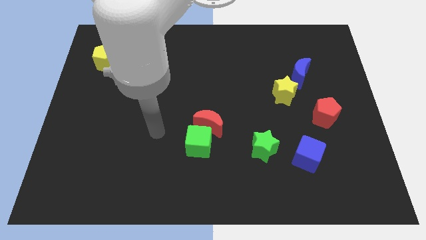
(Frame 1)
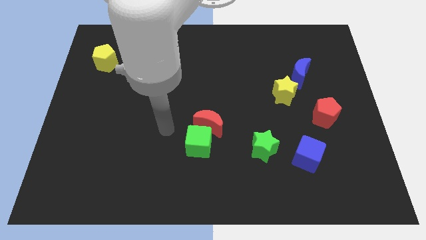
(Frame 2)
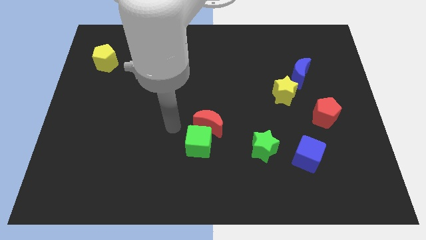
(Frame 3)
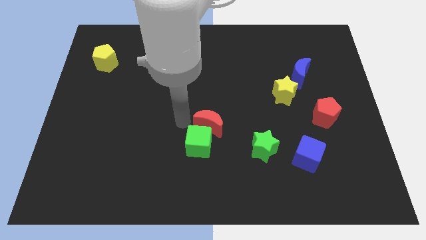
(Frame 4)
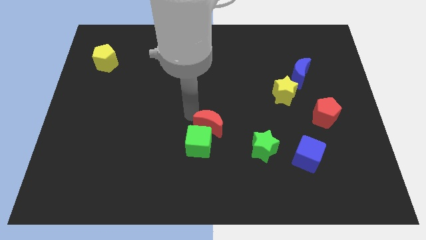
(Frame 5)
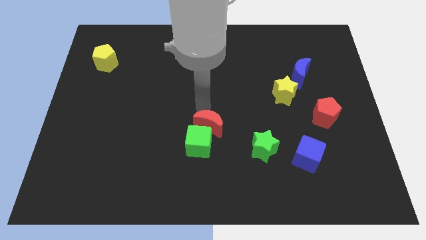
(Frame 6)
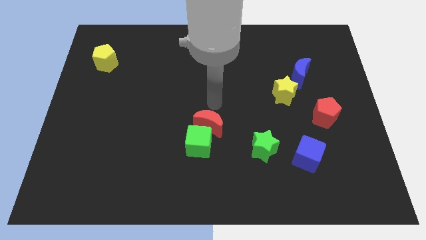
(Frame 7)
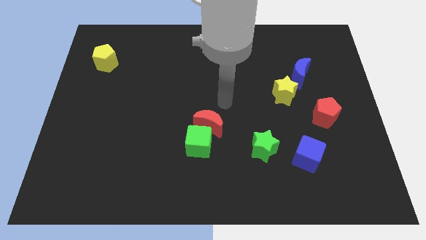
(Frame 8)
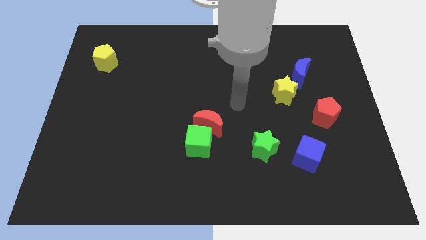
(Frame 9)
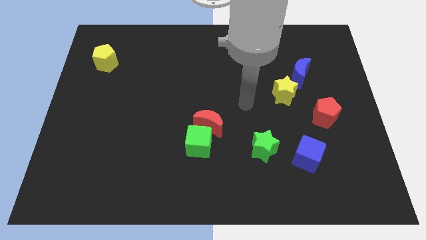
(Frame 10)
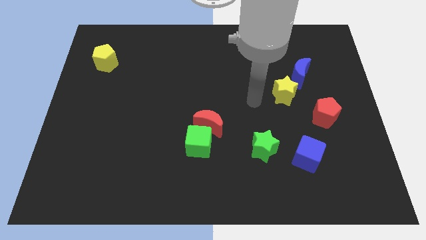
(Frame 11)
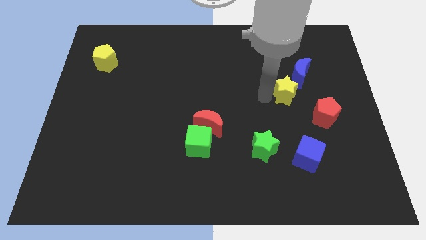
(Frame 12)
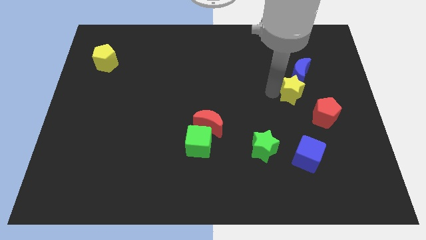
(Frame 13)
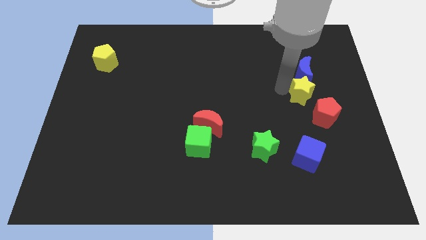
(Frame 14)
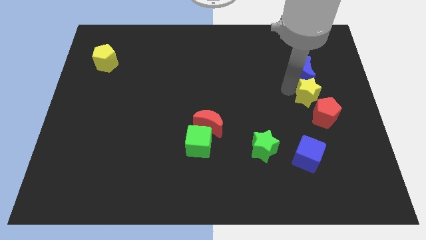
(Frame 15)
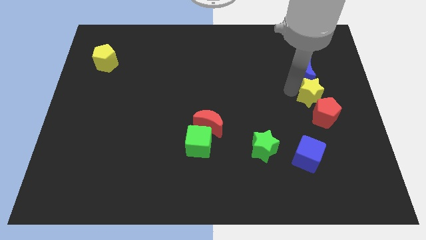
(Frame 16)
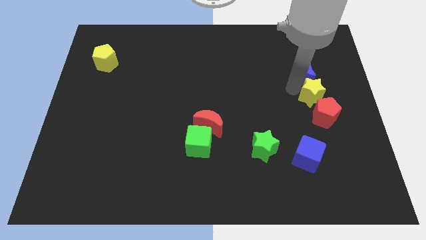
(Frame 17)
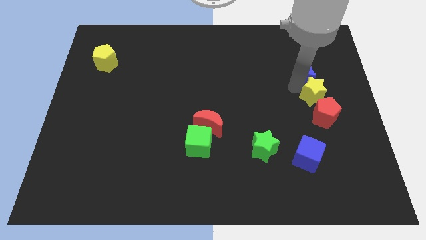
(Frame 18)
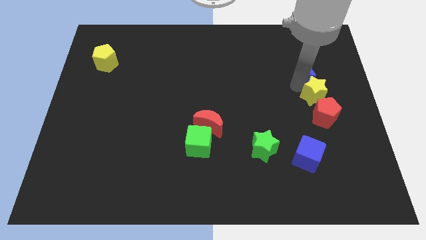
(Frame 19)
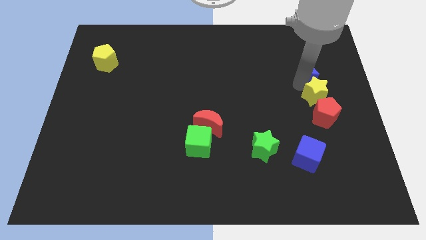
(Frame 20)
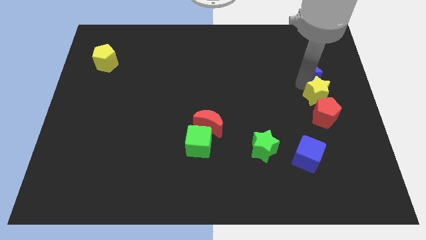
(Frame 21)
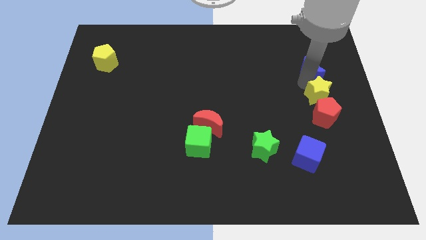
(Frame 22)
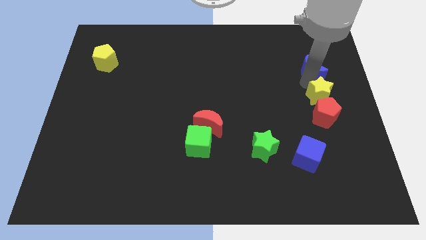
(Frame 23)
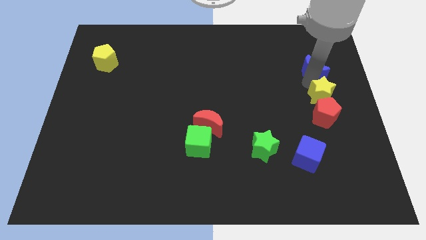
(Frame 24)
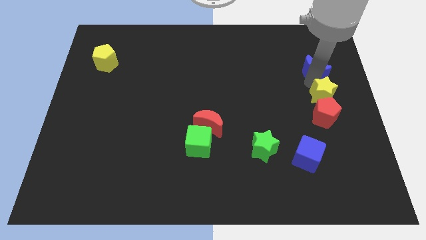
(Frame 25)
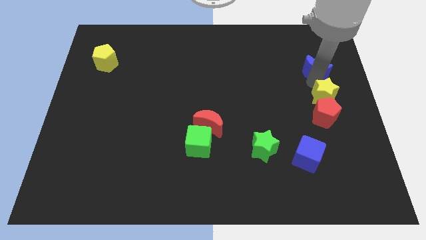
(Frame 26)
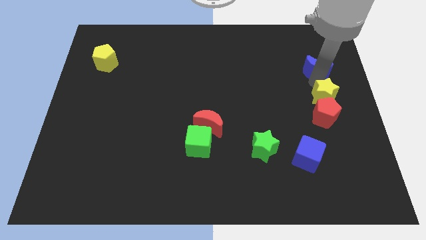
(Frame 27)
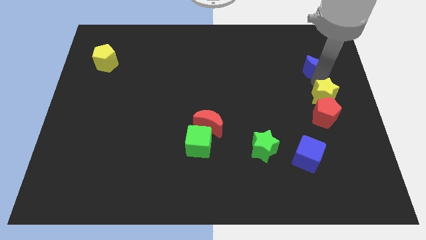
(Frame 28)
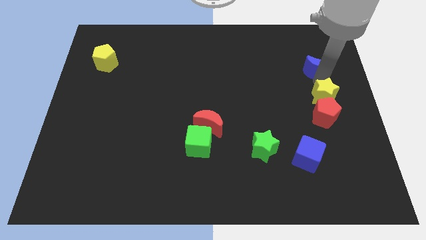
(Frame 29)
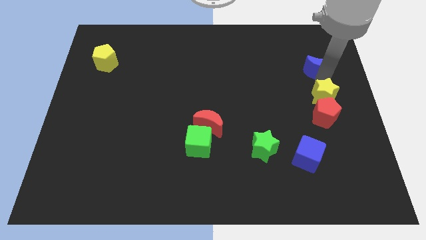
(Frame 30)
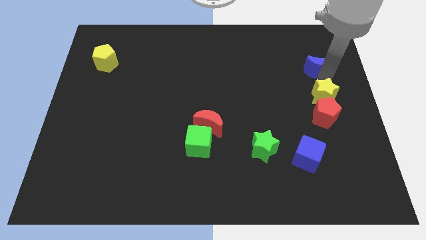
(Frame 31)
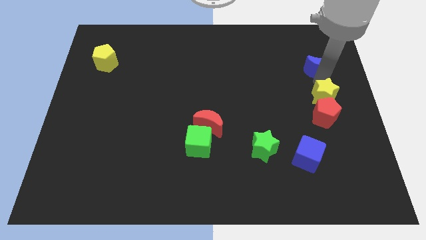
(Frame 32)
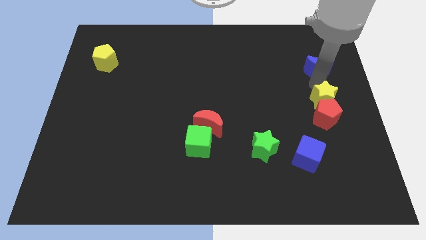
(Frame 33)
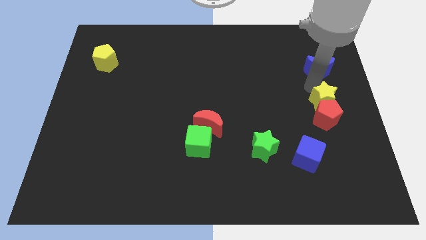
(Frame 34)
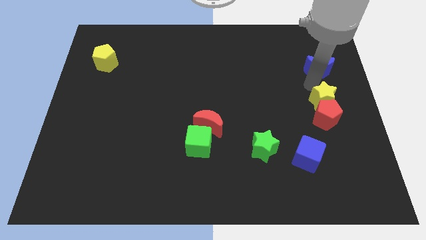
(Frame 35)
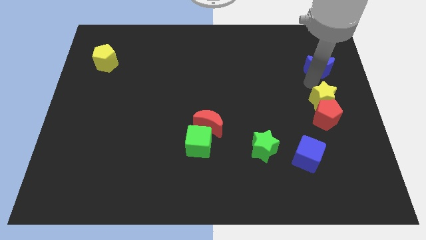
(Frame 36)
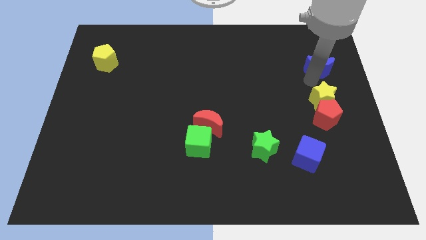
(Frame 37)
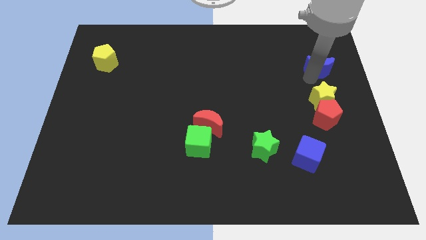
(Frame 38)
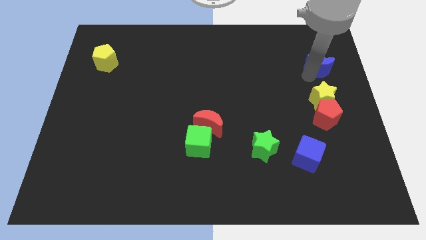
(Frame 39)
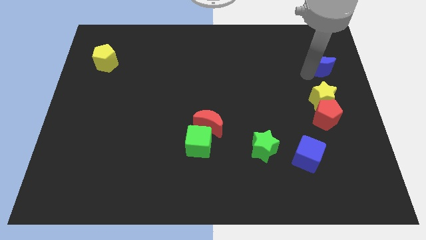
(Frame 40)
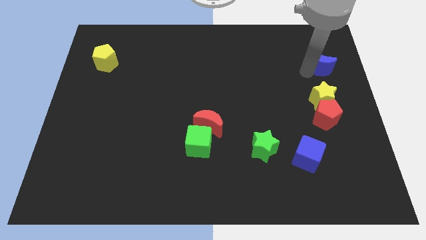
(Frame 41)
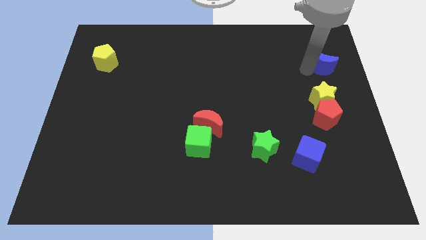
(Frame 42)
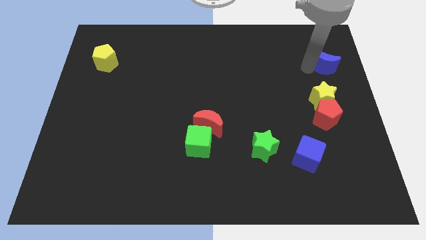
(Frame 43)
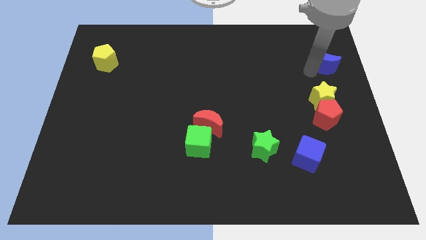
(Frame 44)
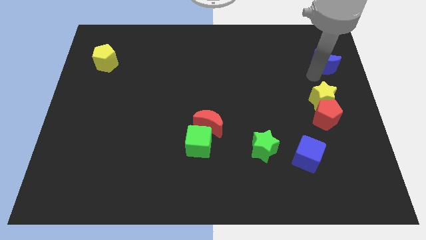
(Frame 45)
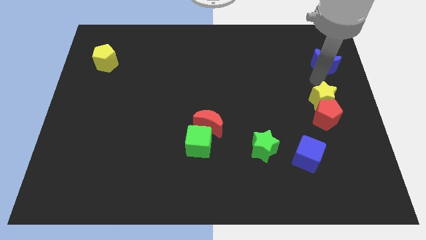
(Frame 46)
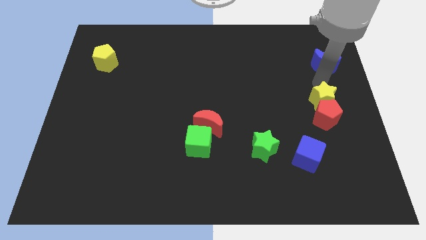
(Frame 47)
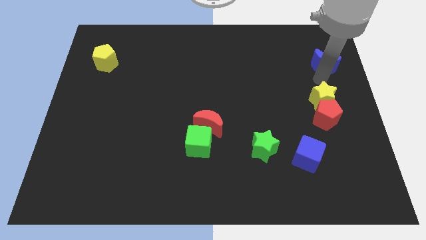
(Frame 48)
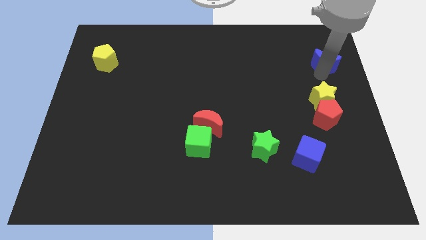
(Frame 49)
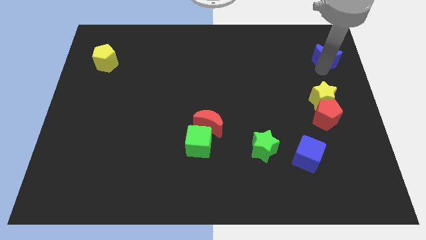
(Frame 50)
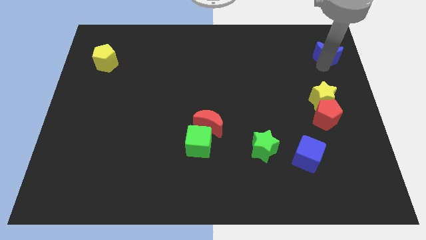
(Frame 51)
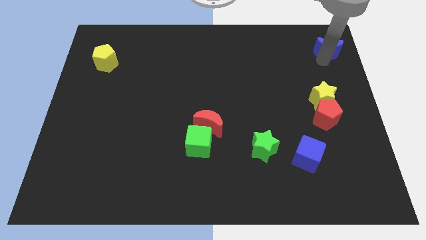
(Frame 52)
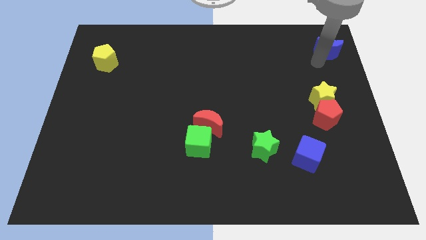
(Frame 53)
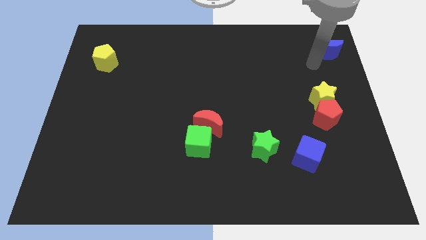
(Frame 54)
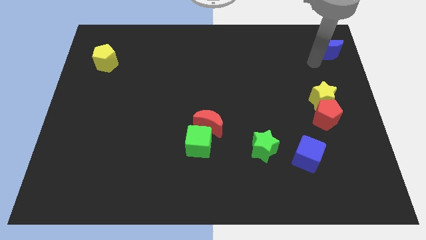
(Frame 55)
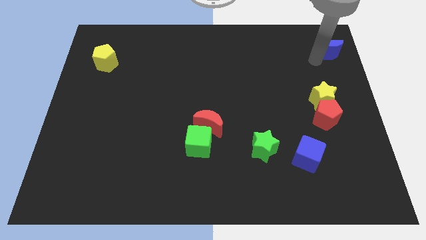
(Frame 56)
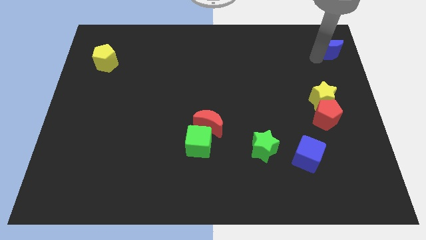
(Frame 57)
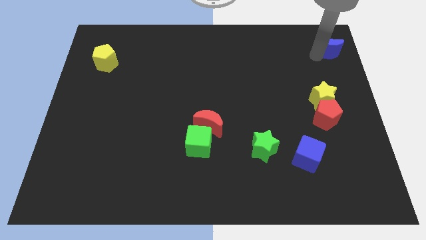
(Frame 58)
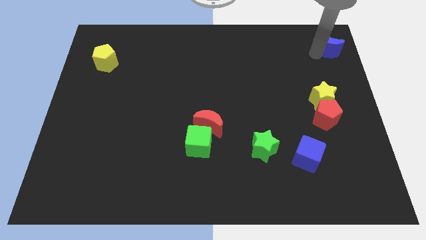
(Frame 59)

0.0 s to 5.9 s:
slide the blue moon to the upper right corner

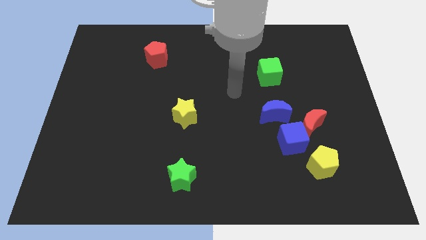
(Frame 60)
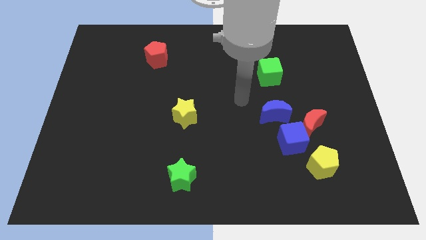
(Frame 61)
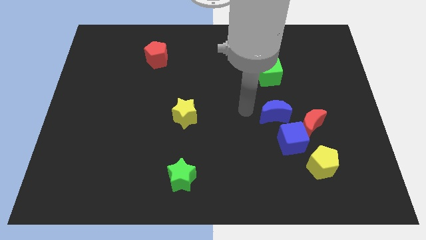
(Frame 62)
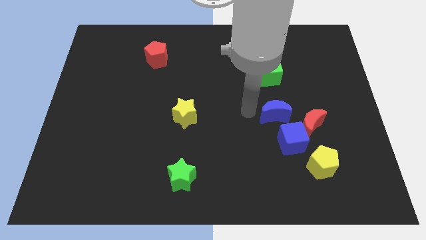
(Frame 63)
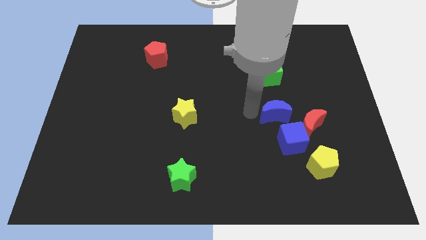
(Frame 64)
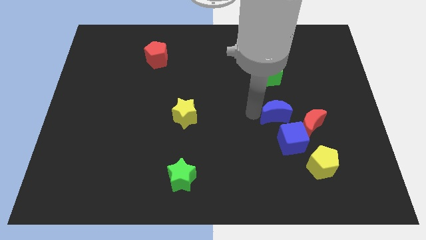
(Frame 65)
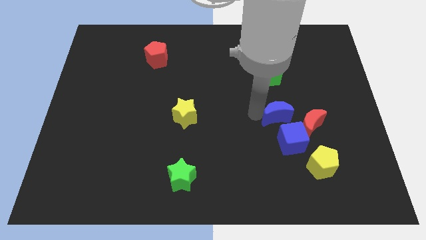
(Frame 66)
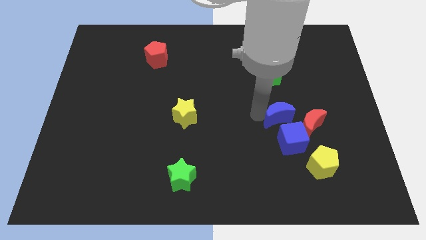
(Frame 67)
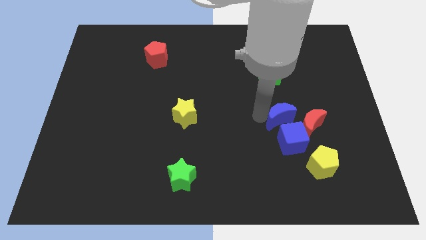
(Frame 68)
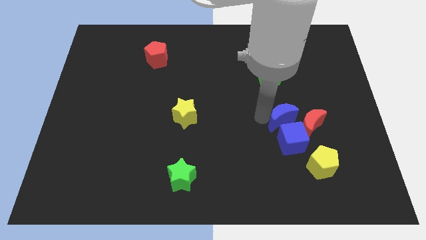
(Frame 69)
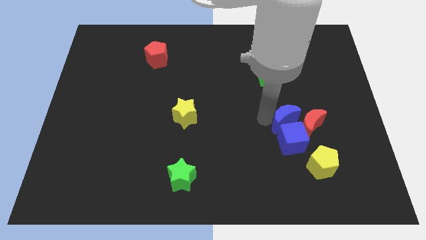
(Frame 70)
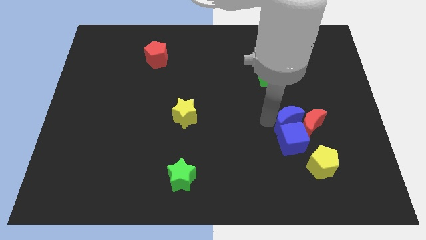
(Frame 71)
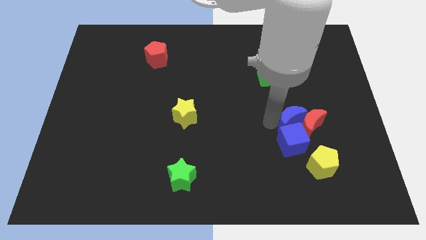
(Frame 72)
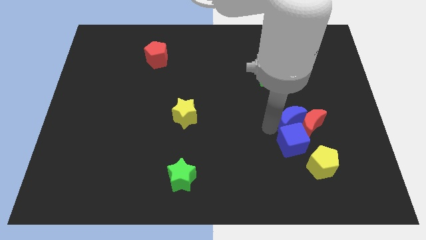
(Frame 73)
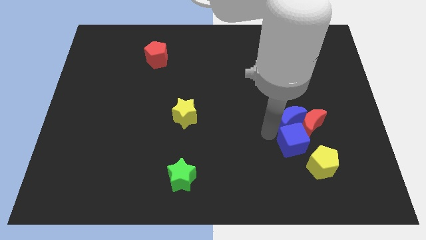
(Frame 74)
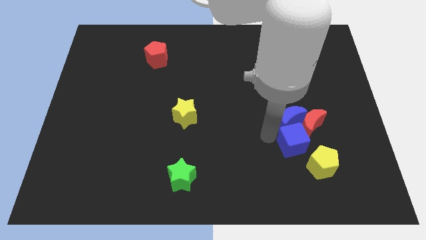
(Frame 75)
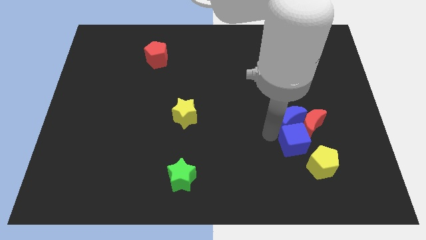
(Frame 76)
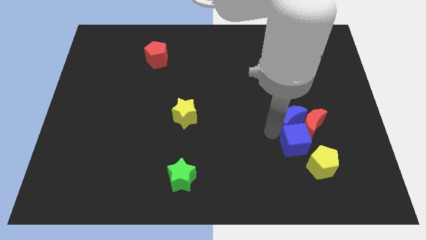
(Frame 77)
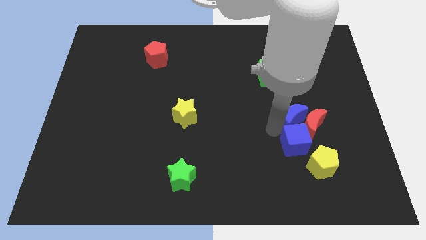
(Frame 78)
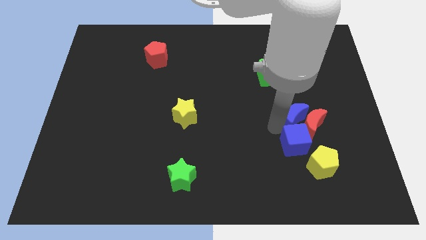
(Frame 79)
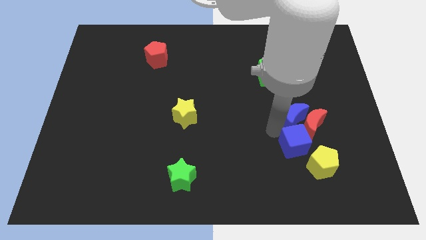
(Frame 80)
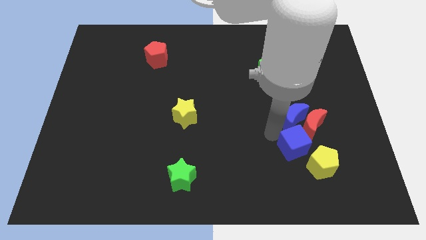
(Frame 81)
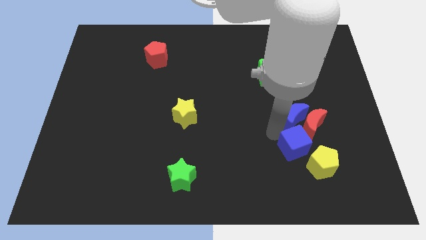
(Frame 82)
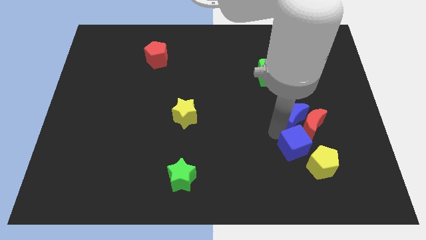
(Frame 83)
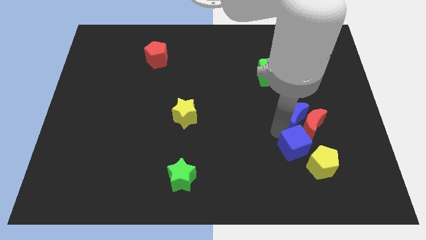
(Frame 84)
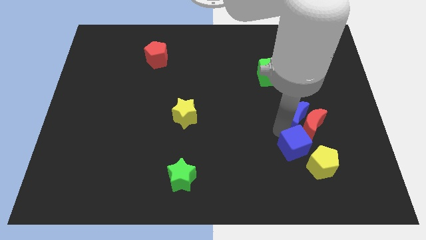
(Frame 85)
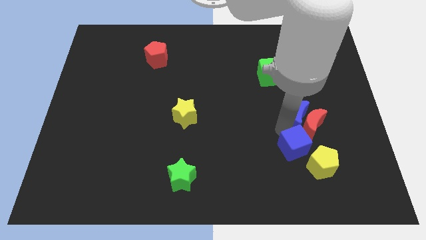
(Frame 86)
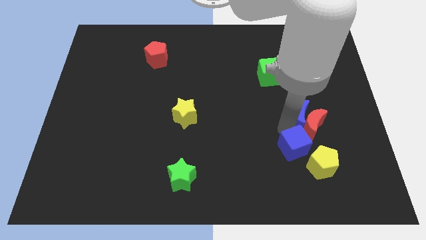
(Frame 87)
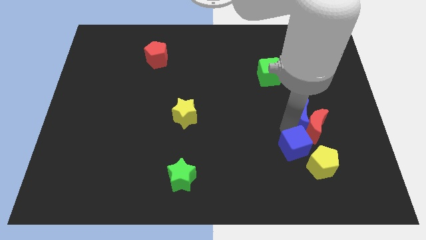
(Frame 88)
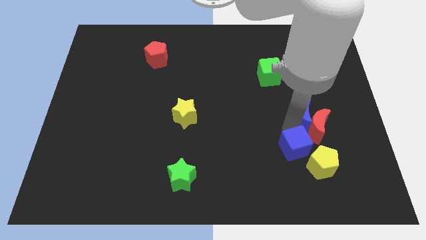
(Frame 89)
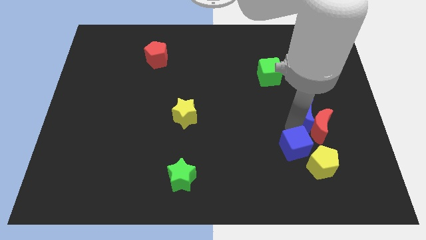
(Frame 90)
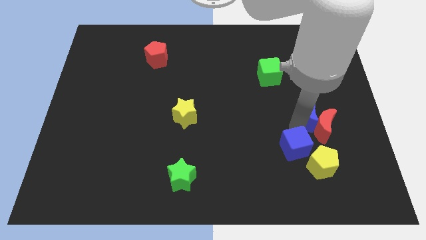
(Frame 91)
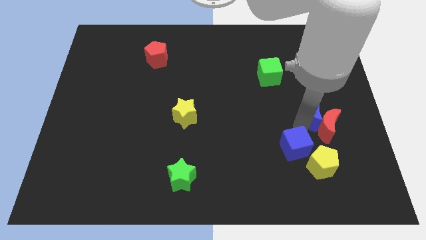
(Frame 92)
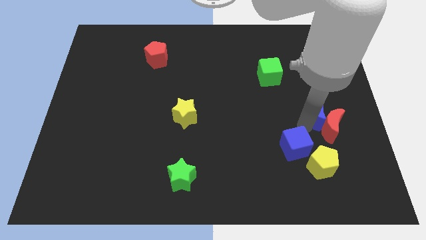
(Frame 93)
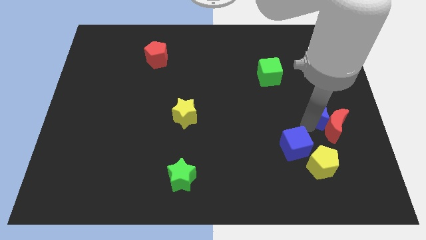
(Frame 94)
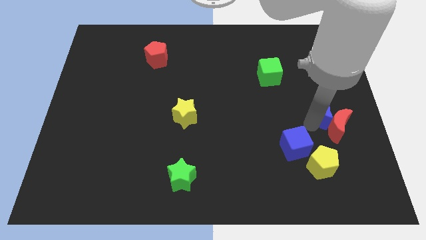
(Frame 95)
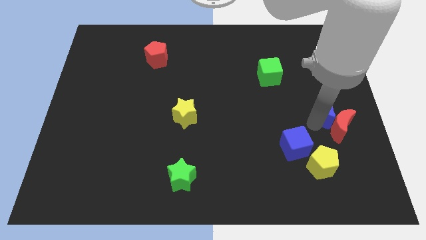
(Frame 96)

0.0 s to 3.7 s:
slide the blue moon to the right side
